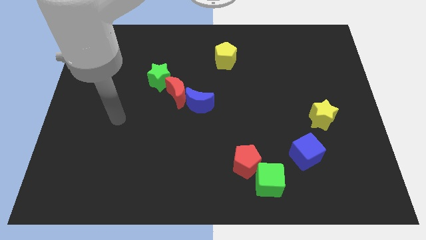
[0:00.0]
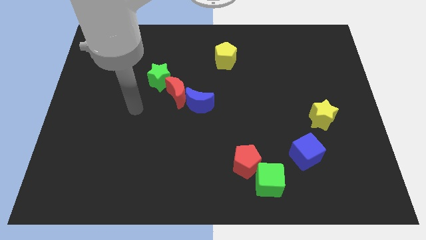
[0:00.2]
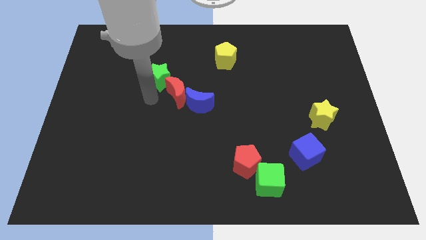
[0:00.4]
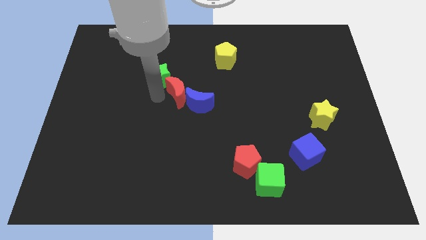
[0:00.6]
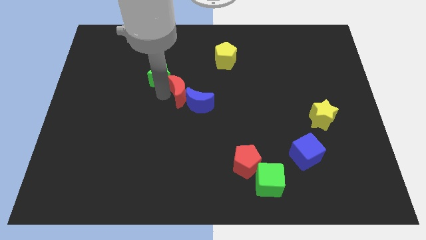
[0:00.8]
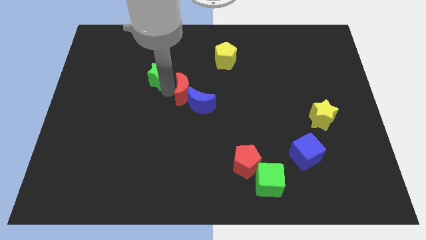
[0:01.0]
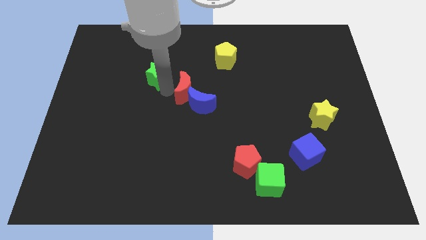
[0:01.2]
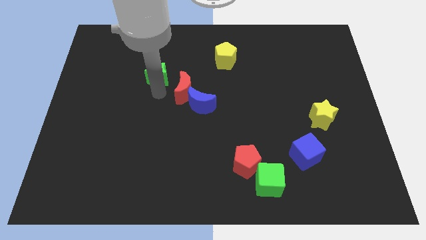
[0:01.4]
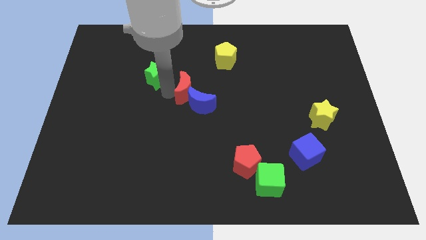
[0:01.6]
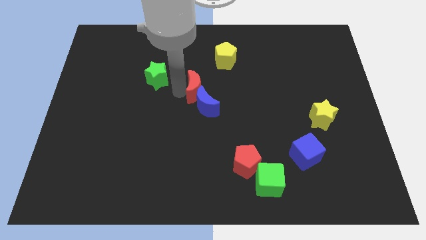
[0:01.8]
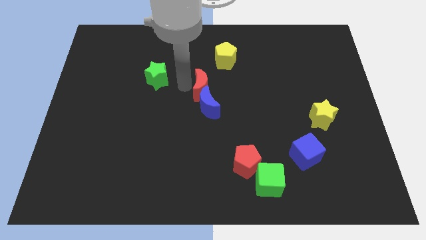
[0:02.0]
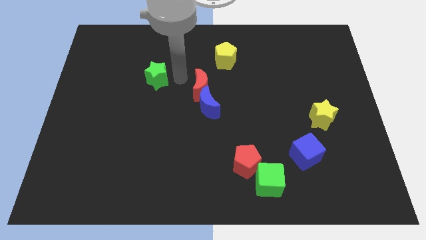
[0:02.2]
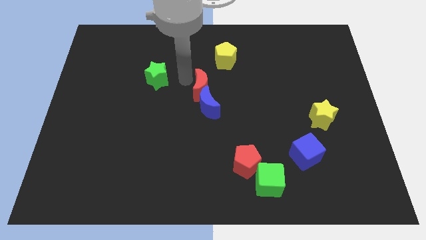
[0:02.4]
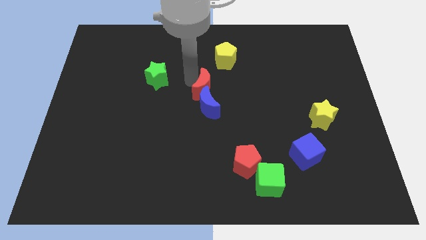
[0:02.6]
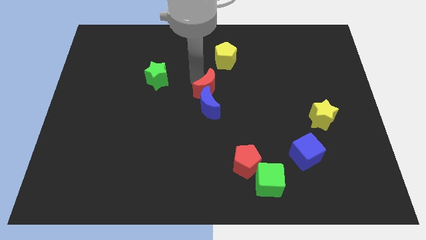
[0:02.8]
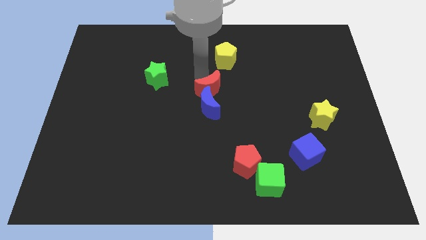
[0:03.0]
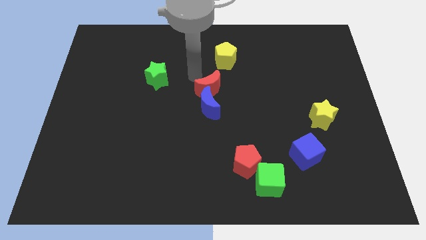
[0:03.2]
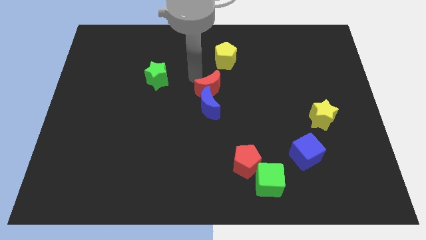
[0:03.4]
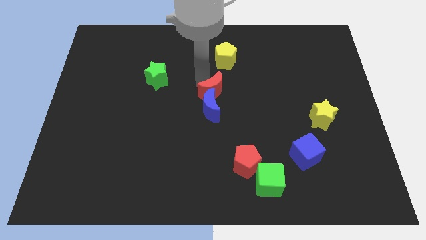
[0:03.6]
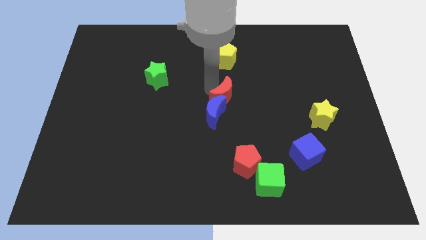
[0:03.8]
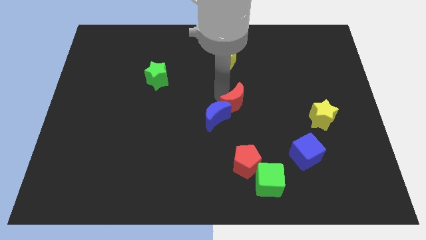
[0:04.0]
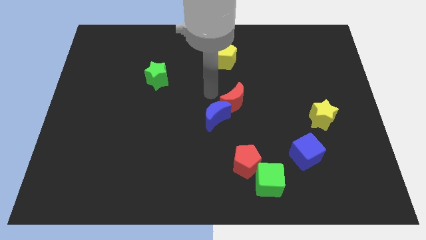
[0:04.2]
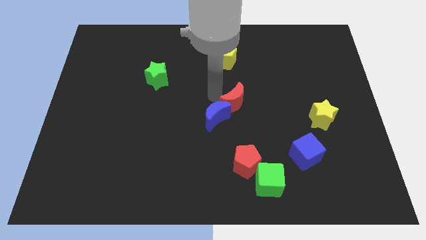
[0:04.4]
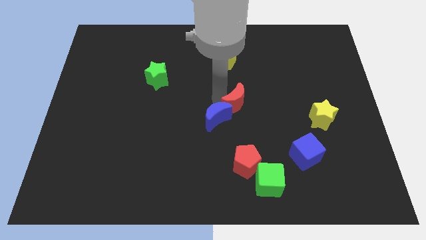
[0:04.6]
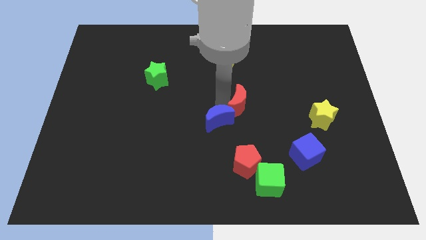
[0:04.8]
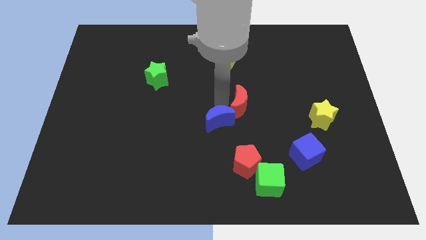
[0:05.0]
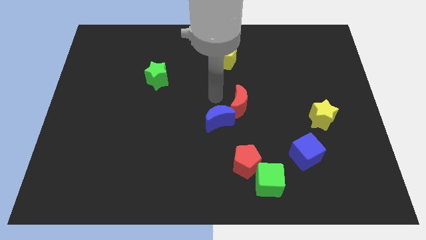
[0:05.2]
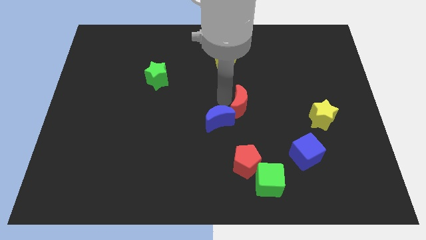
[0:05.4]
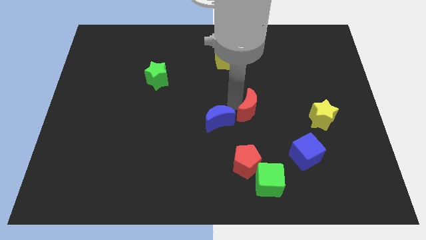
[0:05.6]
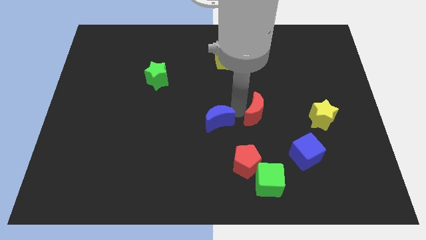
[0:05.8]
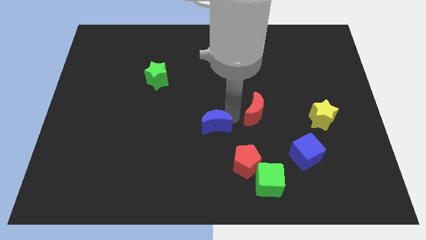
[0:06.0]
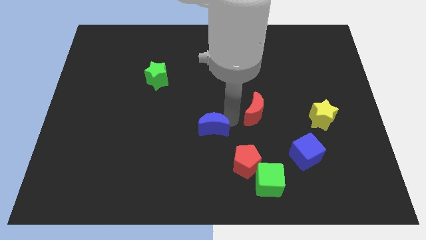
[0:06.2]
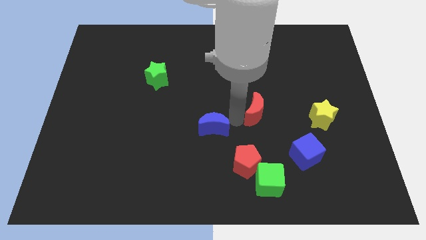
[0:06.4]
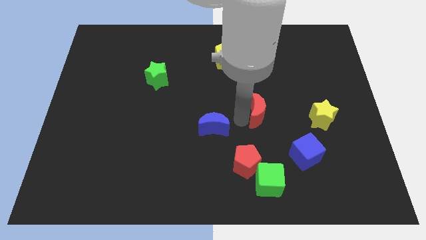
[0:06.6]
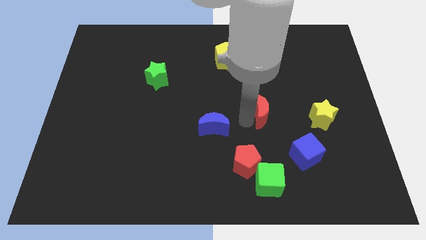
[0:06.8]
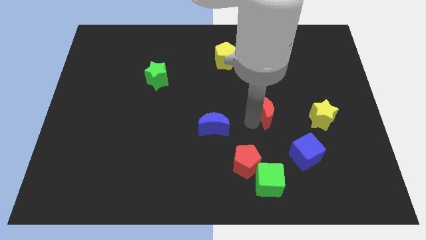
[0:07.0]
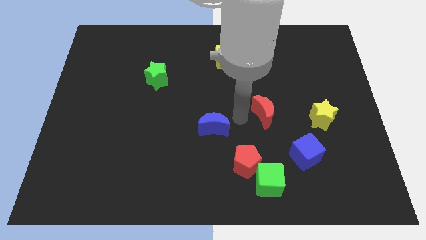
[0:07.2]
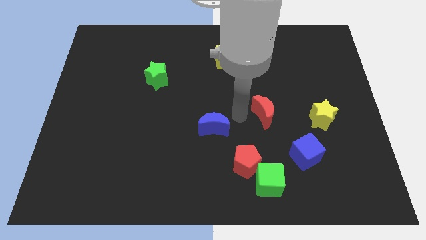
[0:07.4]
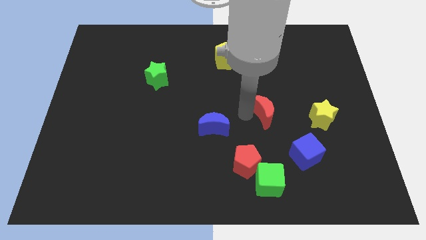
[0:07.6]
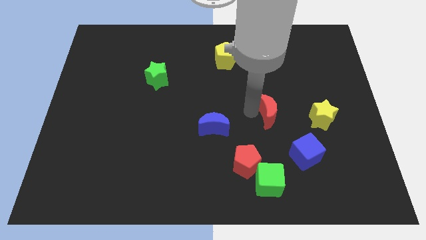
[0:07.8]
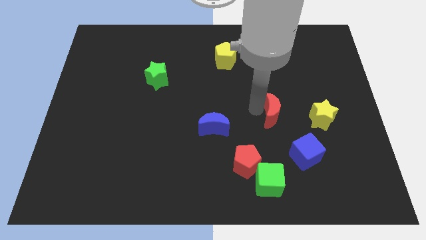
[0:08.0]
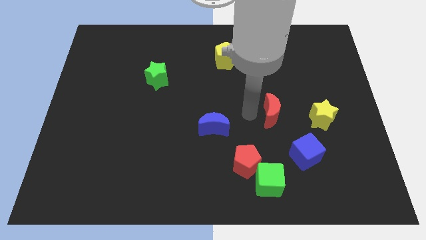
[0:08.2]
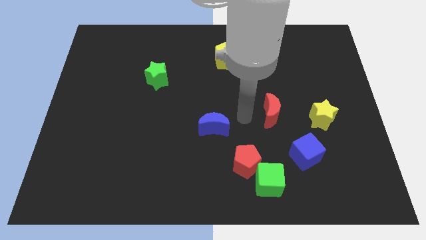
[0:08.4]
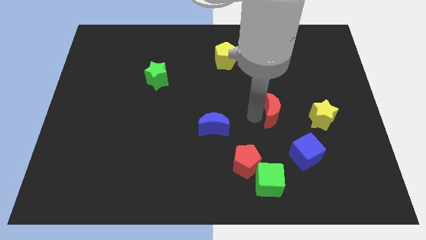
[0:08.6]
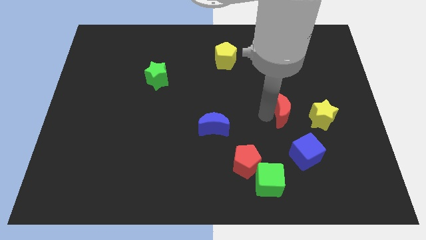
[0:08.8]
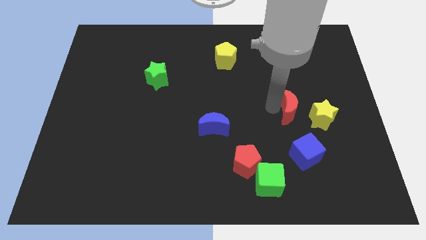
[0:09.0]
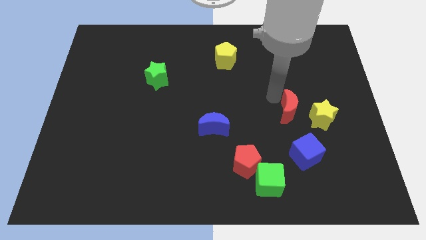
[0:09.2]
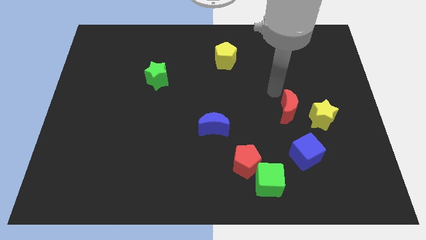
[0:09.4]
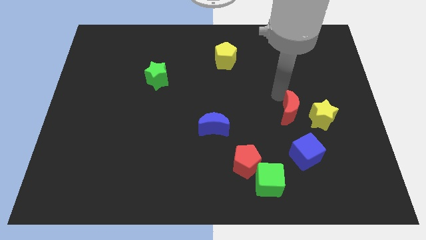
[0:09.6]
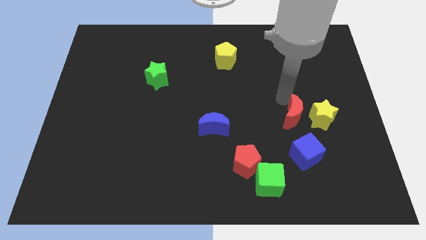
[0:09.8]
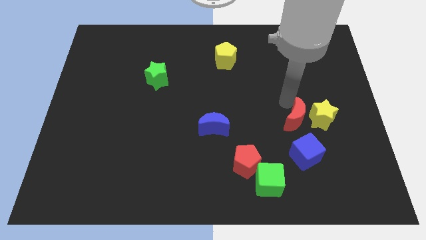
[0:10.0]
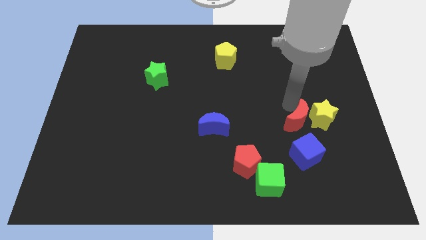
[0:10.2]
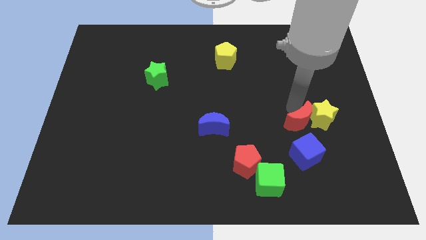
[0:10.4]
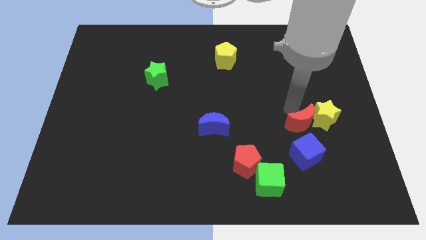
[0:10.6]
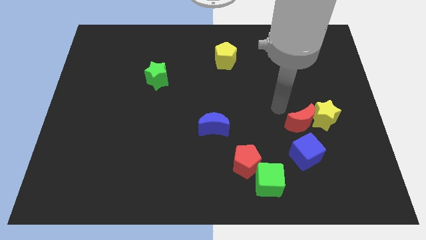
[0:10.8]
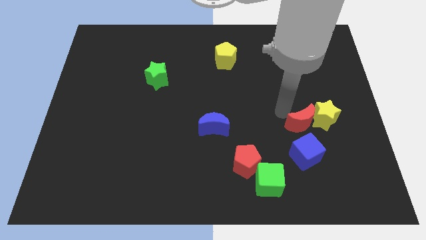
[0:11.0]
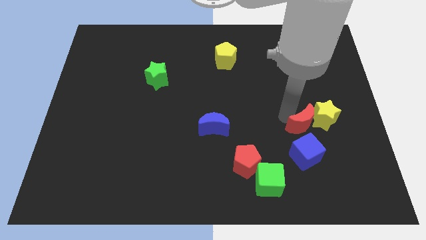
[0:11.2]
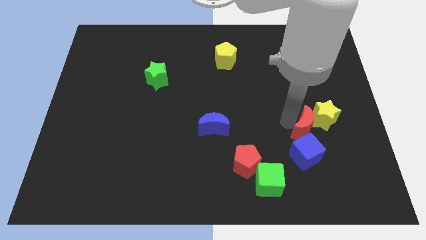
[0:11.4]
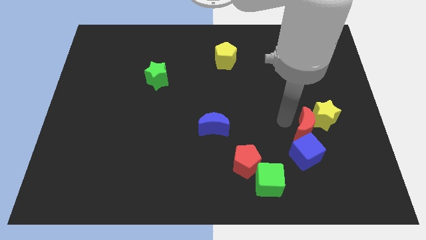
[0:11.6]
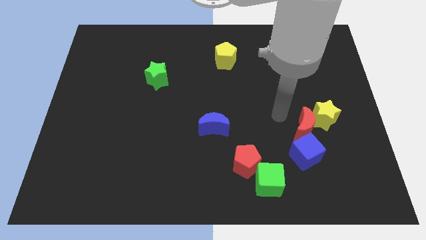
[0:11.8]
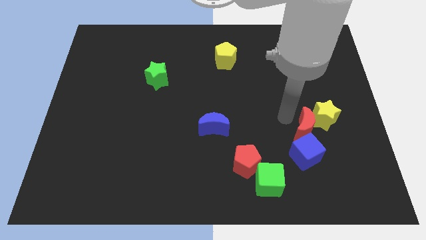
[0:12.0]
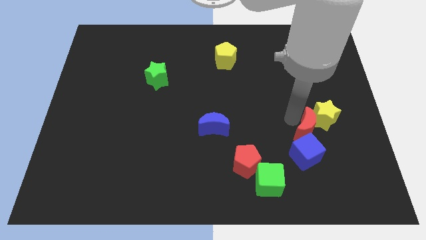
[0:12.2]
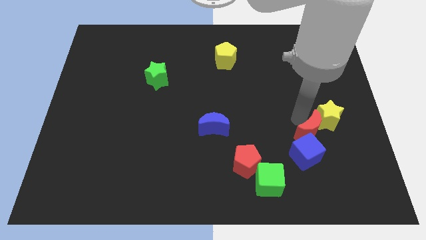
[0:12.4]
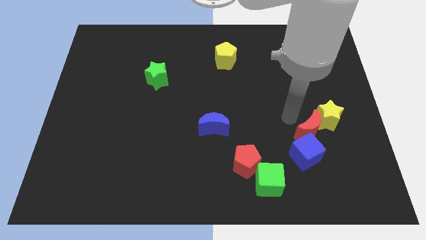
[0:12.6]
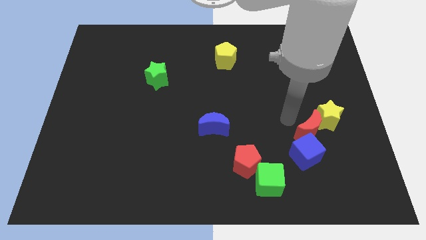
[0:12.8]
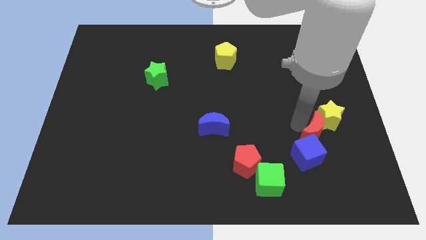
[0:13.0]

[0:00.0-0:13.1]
slide the red moon to the bottom side of the yellow star

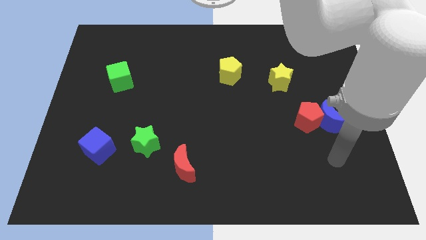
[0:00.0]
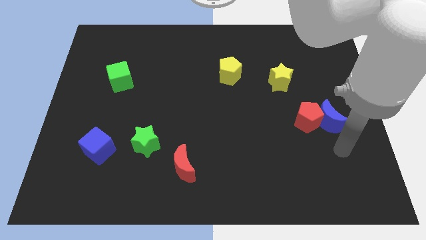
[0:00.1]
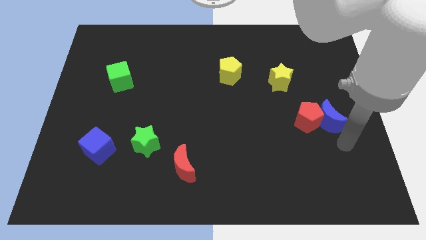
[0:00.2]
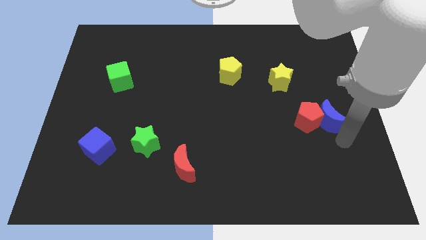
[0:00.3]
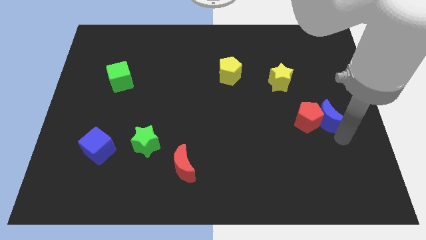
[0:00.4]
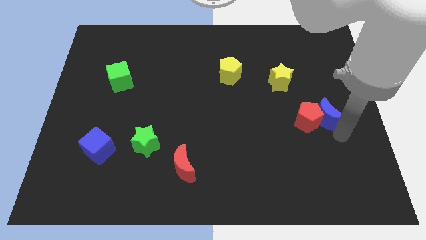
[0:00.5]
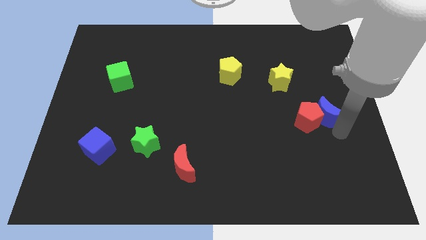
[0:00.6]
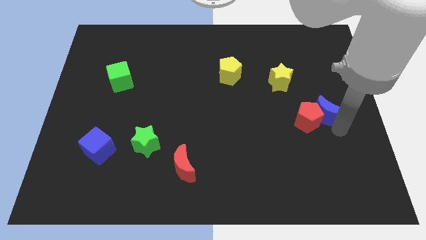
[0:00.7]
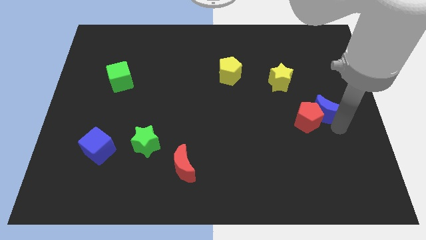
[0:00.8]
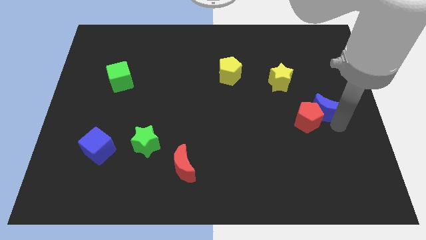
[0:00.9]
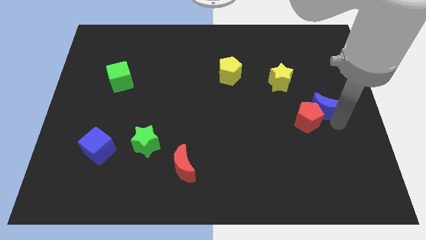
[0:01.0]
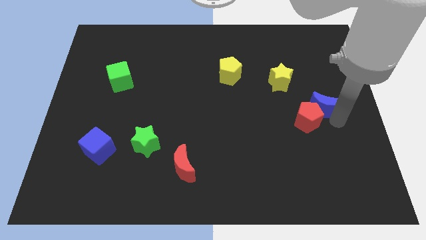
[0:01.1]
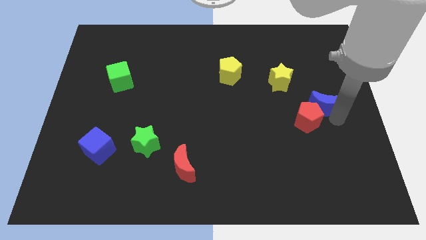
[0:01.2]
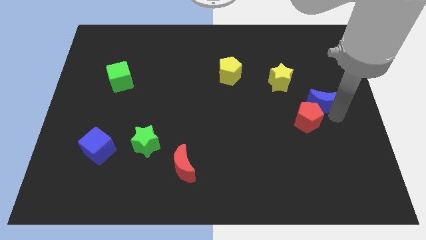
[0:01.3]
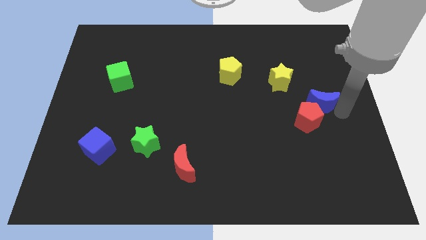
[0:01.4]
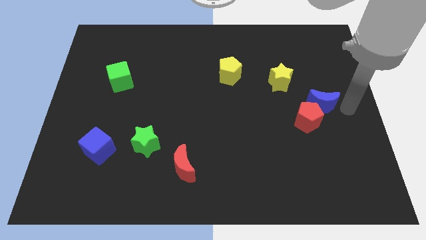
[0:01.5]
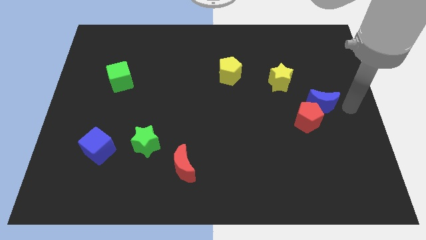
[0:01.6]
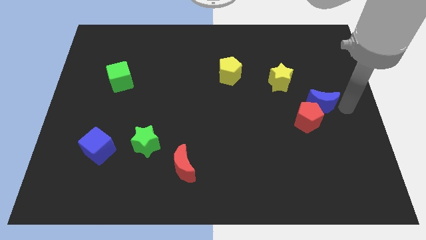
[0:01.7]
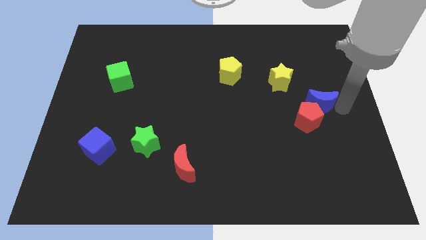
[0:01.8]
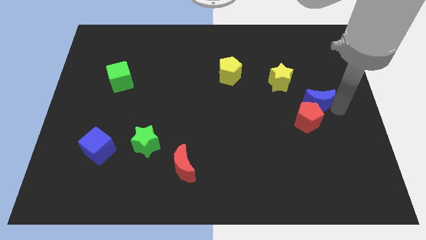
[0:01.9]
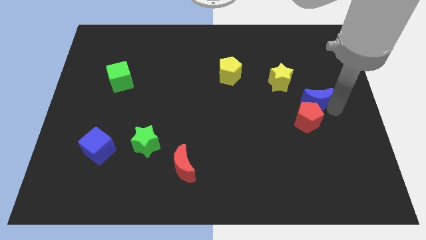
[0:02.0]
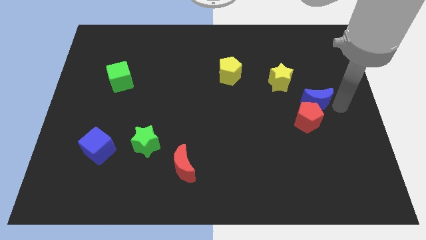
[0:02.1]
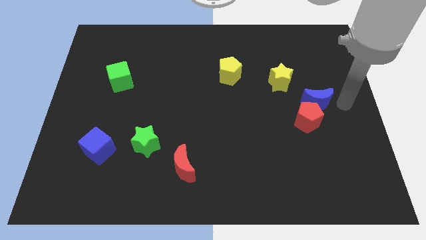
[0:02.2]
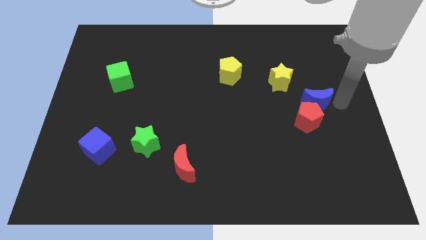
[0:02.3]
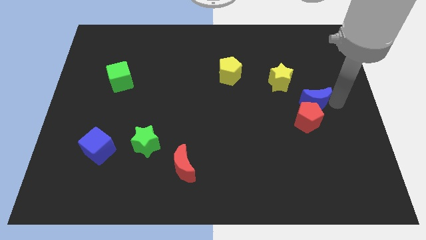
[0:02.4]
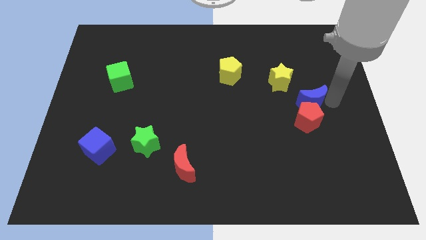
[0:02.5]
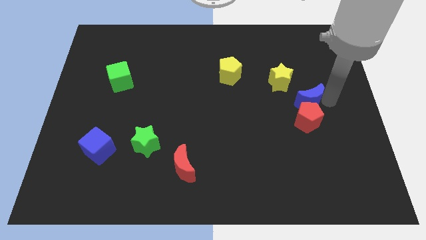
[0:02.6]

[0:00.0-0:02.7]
move the blue moon to the top left of the red pentagon
